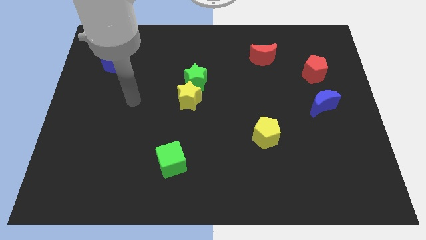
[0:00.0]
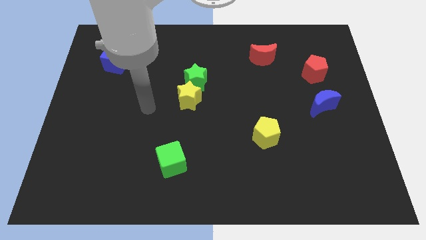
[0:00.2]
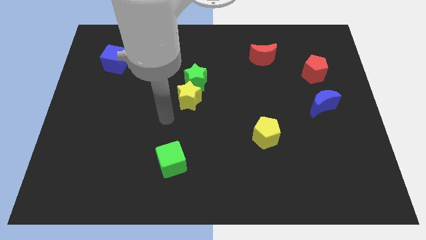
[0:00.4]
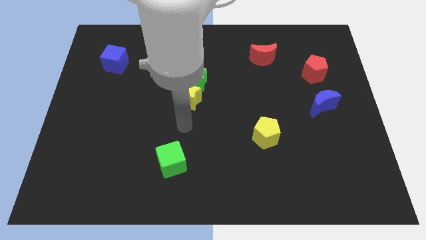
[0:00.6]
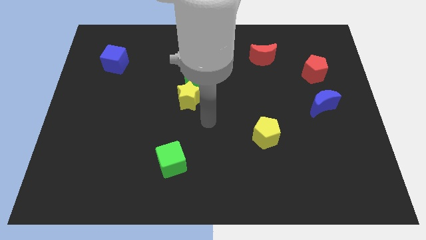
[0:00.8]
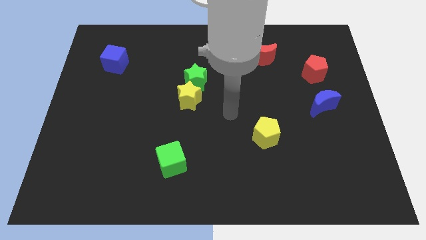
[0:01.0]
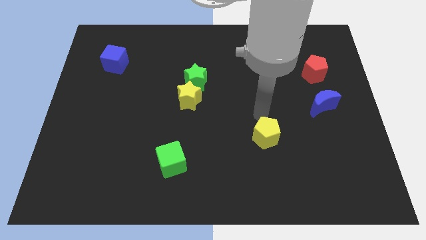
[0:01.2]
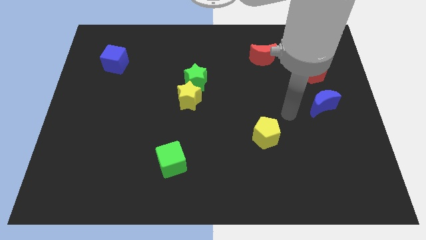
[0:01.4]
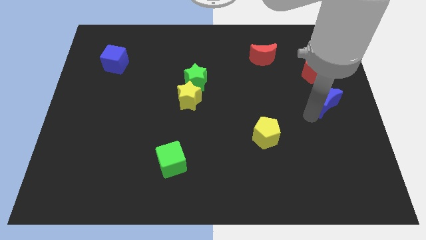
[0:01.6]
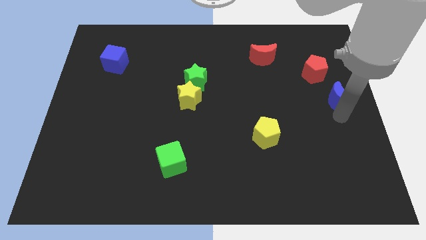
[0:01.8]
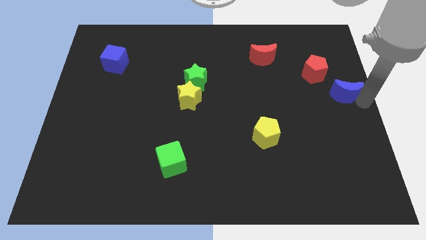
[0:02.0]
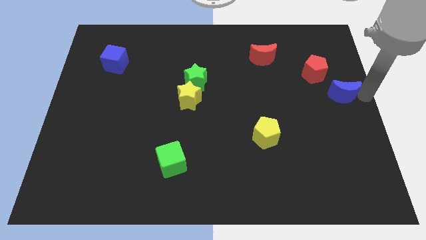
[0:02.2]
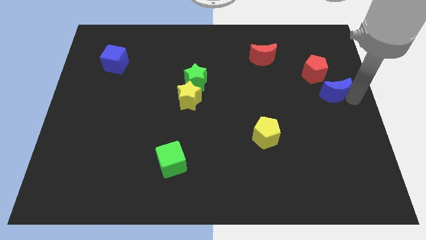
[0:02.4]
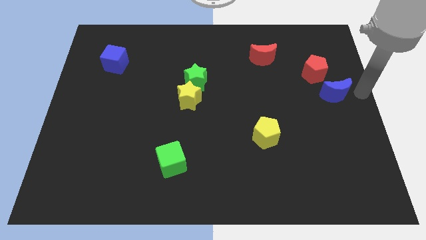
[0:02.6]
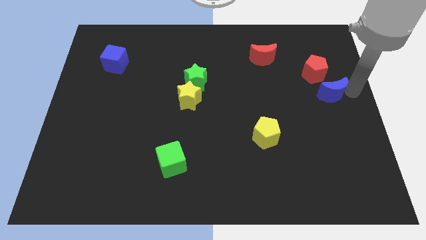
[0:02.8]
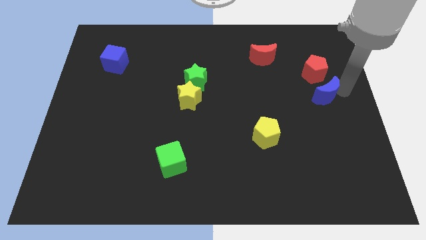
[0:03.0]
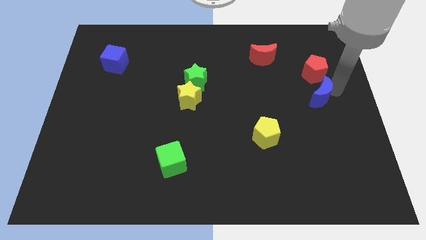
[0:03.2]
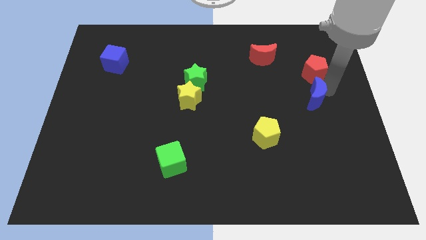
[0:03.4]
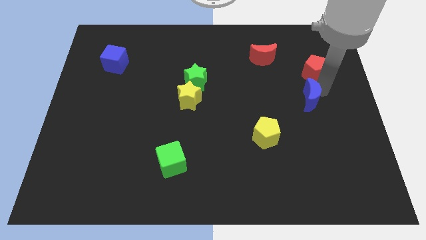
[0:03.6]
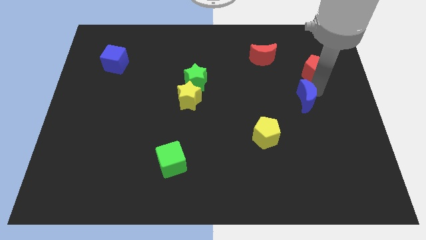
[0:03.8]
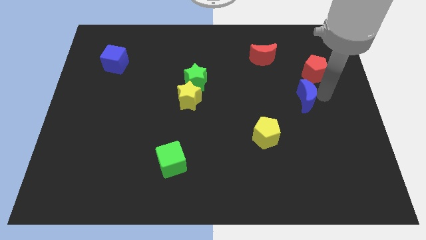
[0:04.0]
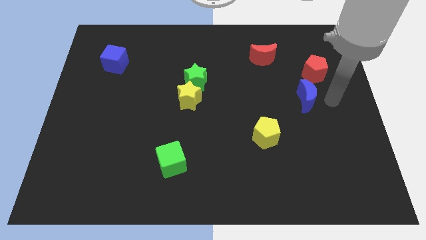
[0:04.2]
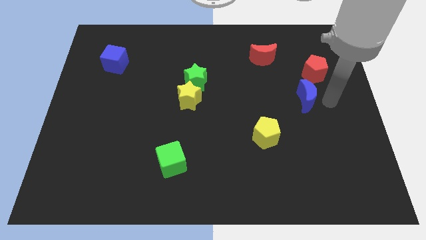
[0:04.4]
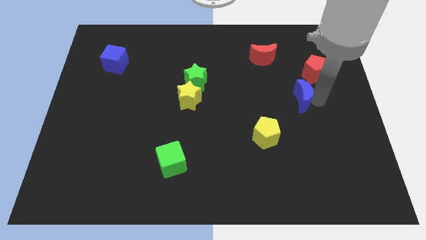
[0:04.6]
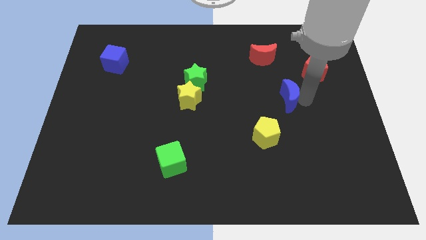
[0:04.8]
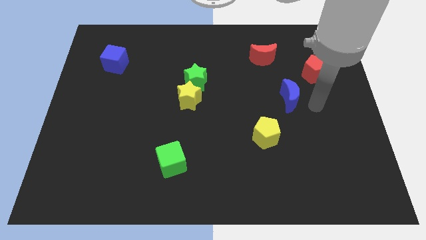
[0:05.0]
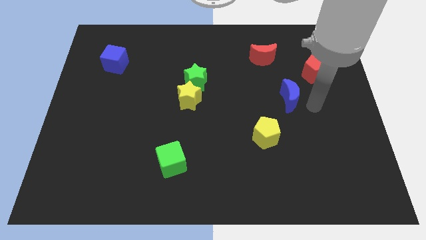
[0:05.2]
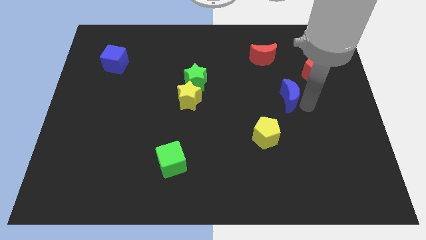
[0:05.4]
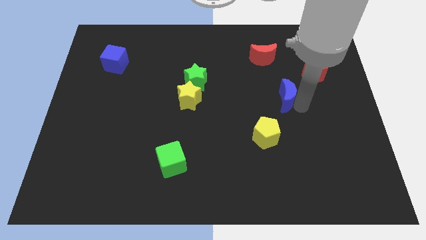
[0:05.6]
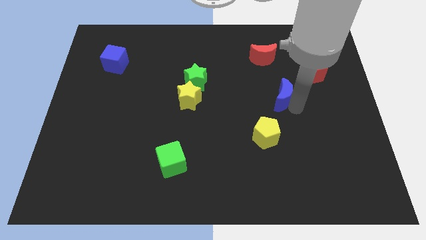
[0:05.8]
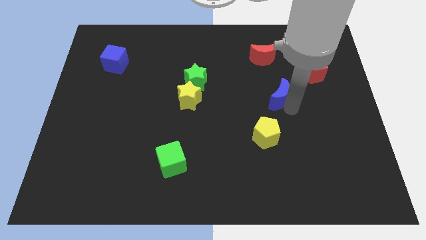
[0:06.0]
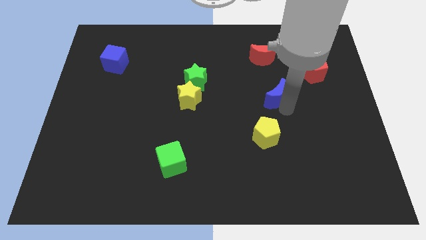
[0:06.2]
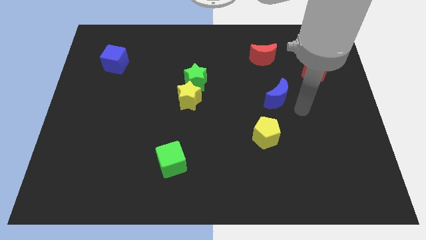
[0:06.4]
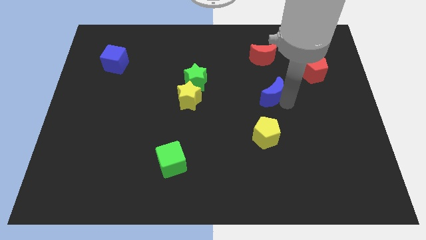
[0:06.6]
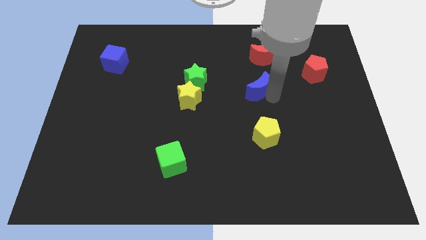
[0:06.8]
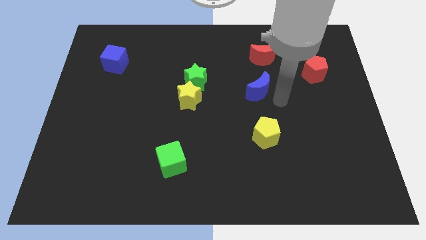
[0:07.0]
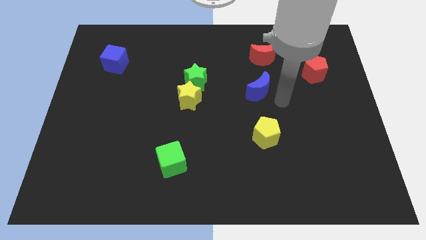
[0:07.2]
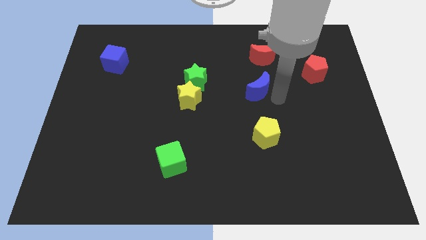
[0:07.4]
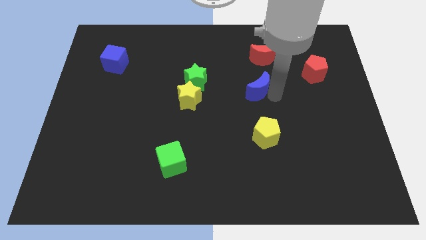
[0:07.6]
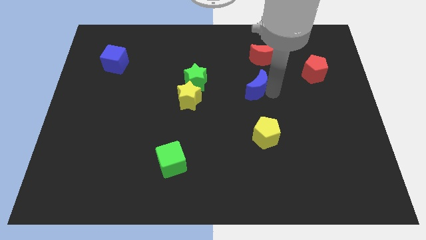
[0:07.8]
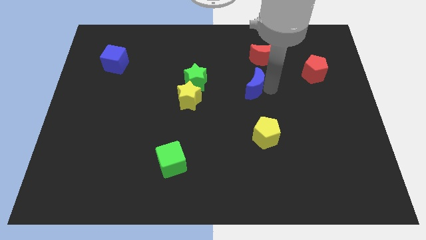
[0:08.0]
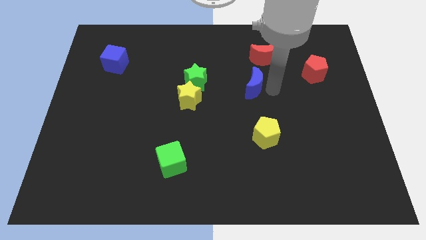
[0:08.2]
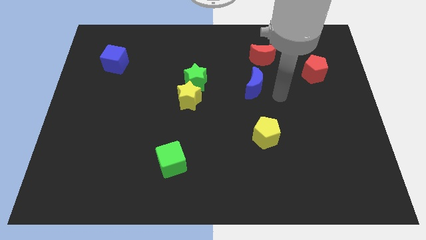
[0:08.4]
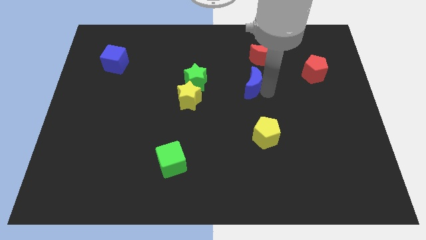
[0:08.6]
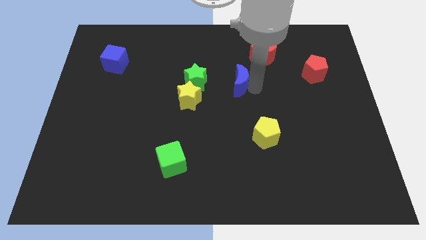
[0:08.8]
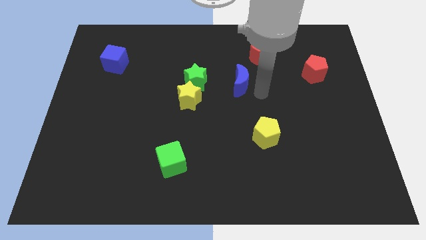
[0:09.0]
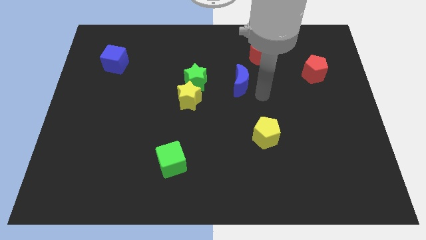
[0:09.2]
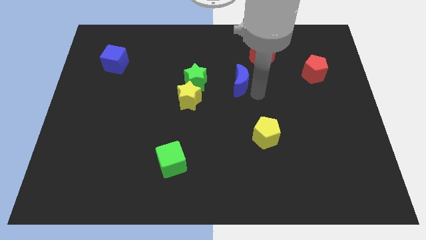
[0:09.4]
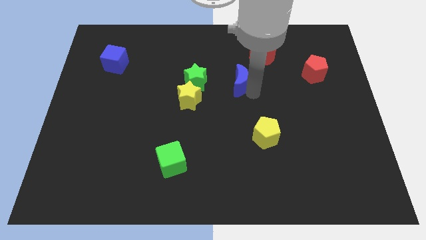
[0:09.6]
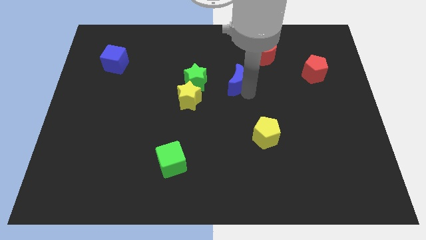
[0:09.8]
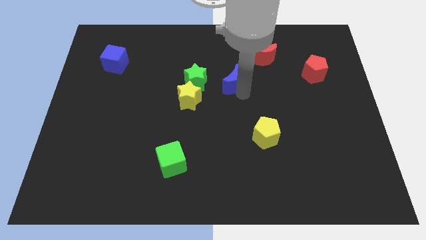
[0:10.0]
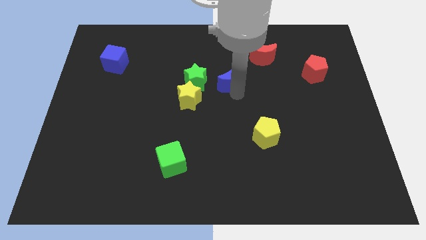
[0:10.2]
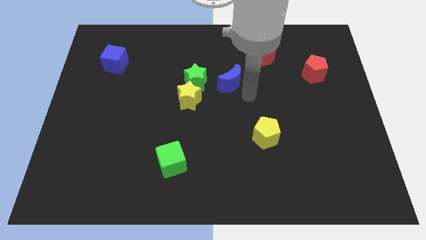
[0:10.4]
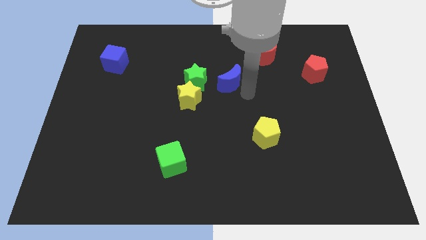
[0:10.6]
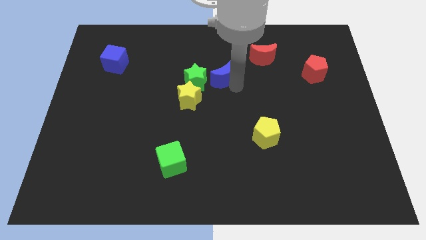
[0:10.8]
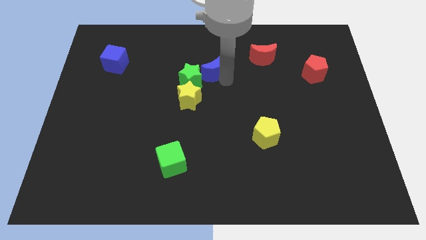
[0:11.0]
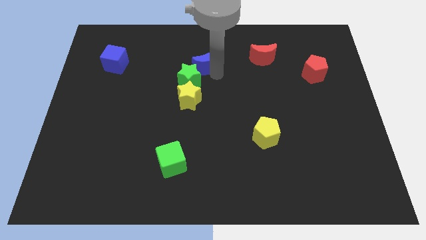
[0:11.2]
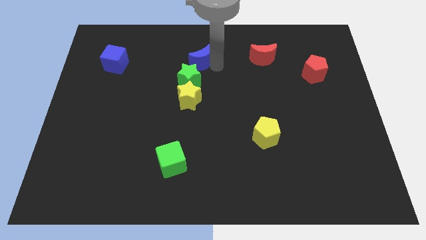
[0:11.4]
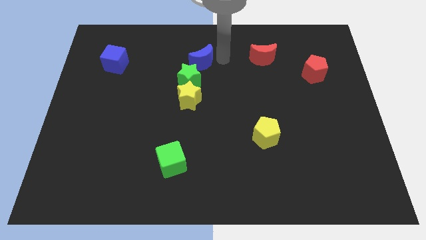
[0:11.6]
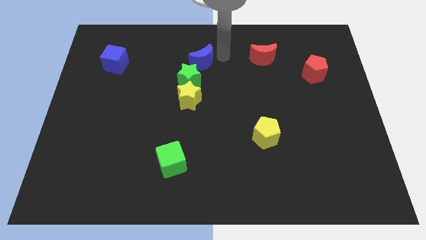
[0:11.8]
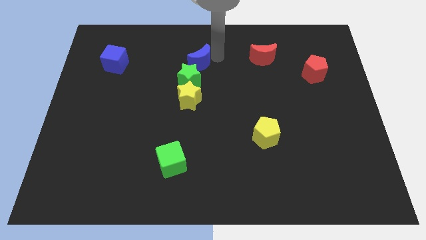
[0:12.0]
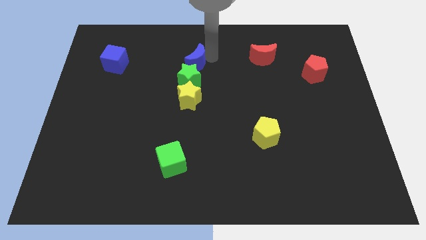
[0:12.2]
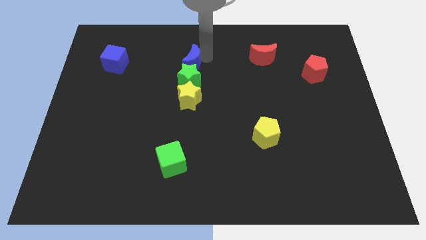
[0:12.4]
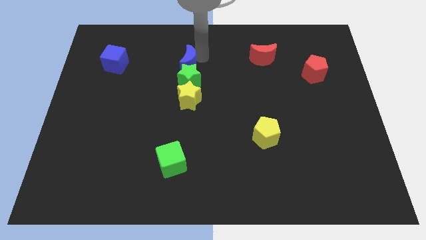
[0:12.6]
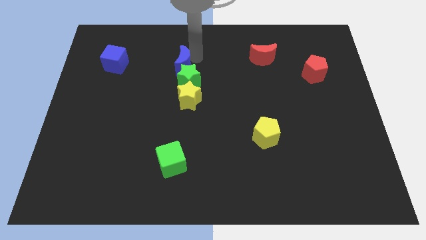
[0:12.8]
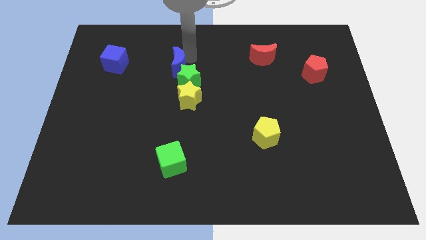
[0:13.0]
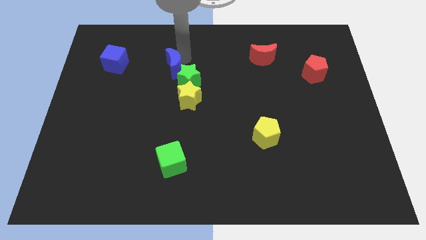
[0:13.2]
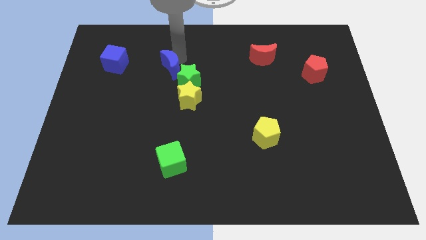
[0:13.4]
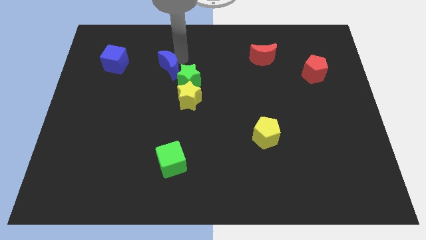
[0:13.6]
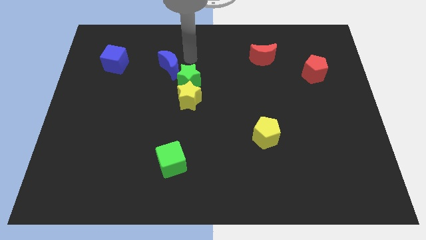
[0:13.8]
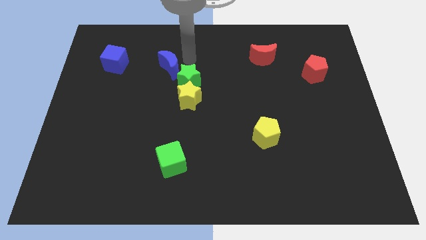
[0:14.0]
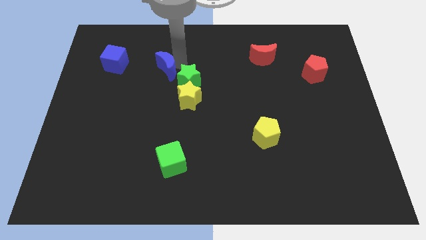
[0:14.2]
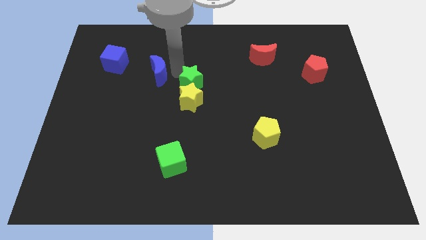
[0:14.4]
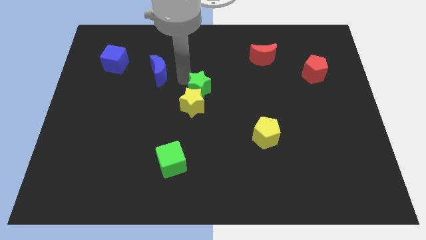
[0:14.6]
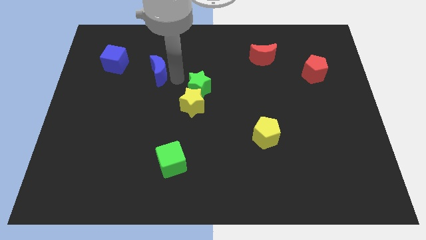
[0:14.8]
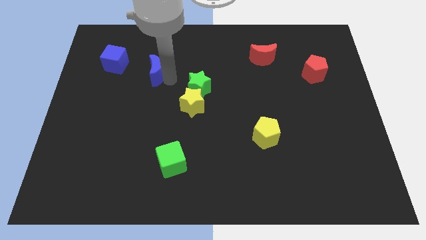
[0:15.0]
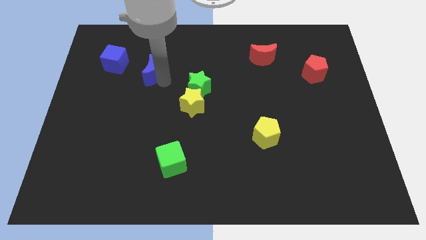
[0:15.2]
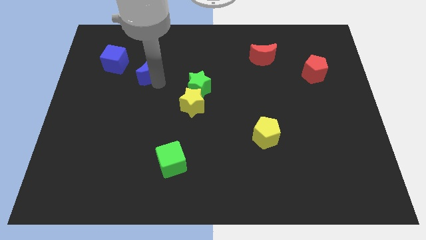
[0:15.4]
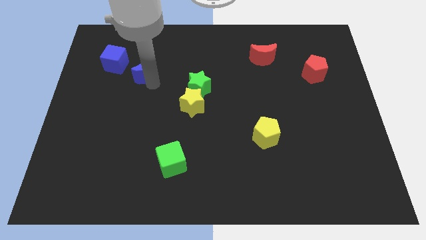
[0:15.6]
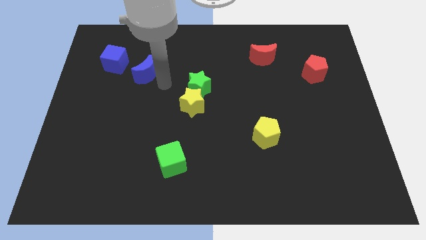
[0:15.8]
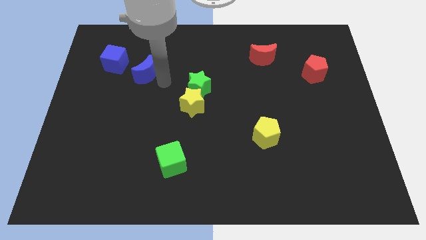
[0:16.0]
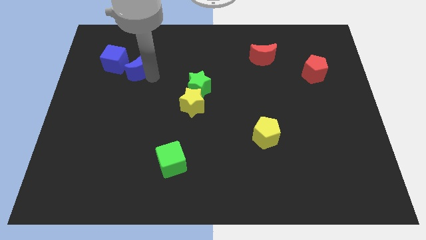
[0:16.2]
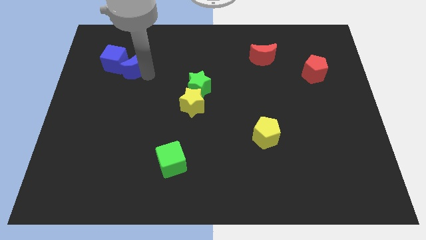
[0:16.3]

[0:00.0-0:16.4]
move the blue moon to the blue cube
